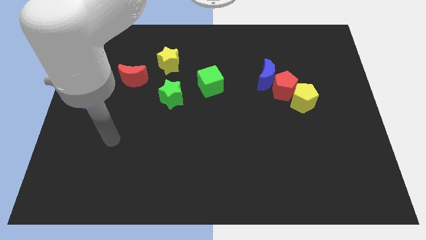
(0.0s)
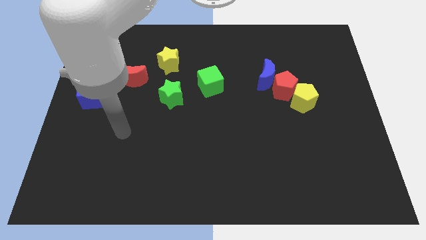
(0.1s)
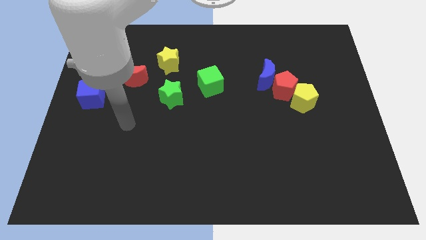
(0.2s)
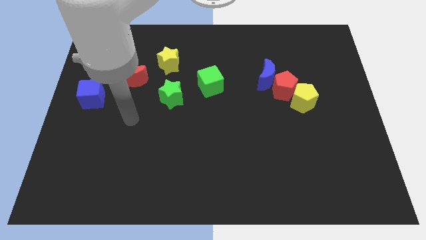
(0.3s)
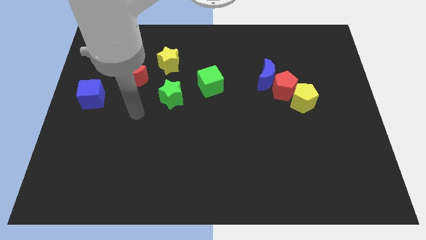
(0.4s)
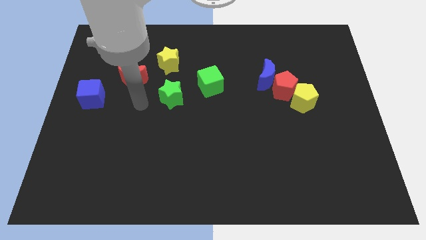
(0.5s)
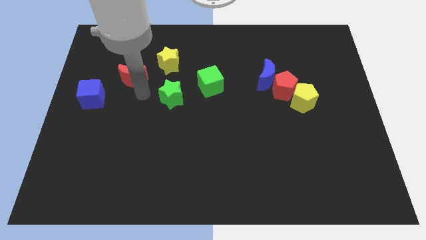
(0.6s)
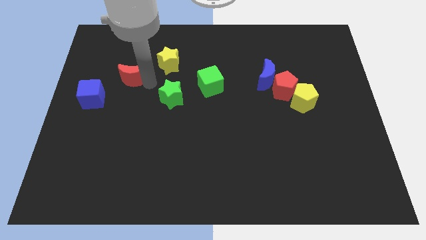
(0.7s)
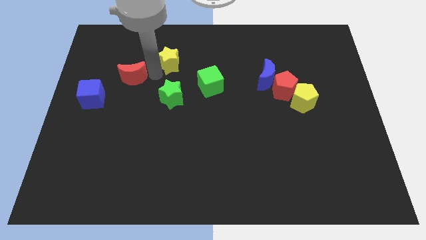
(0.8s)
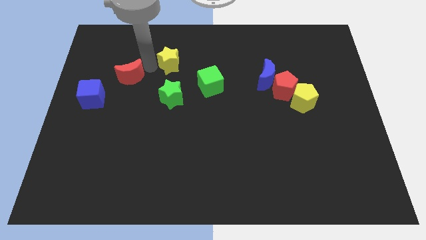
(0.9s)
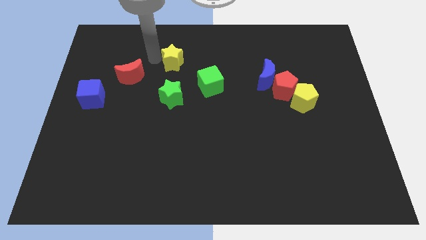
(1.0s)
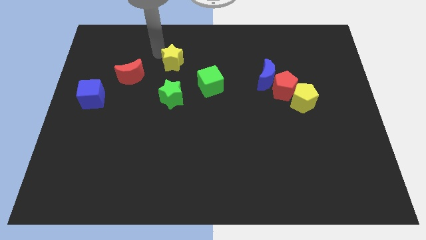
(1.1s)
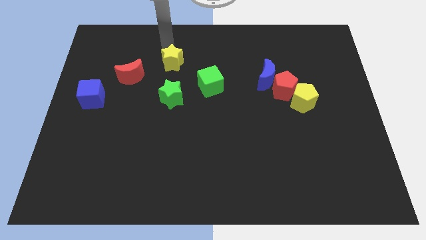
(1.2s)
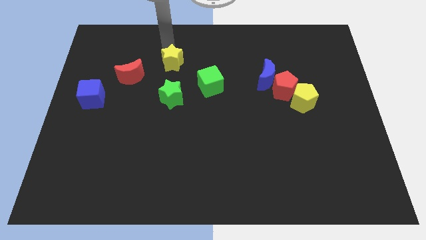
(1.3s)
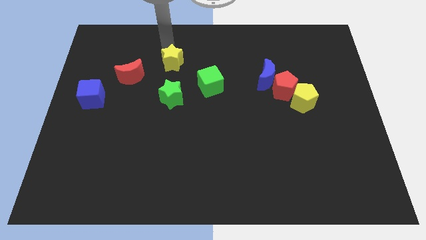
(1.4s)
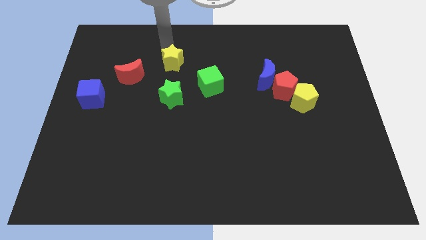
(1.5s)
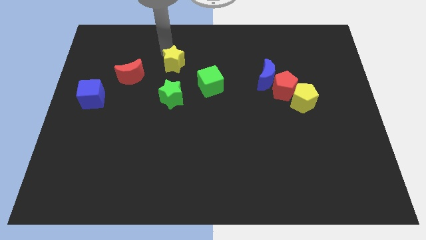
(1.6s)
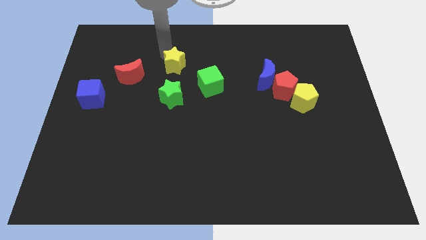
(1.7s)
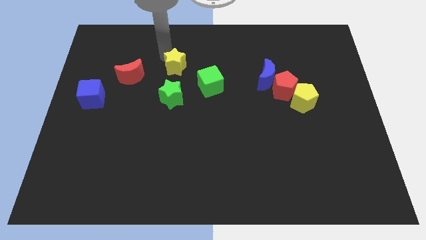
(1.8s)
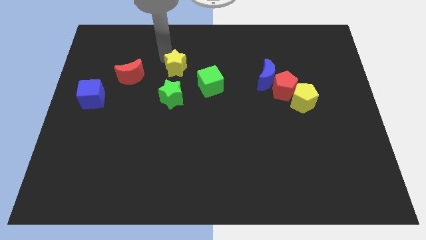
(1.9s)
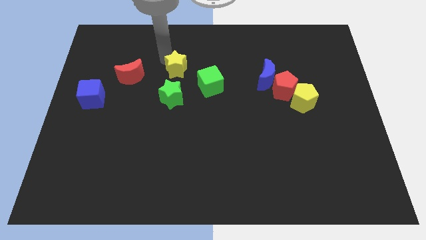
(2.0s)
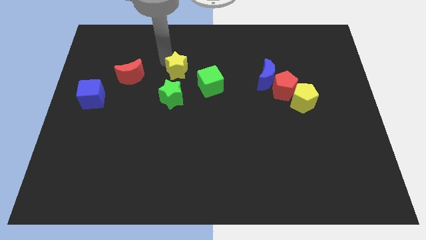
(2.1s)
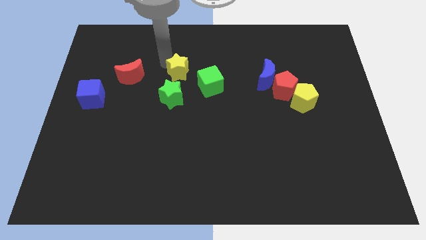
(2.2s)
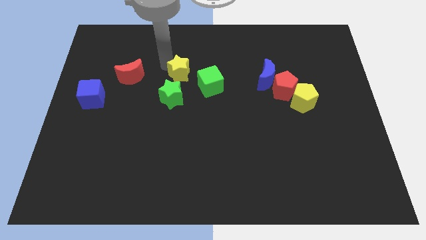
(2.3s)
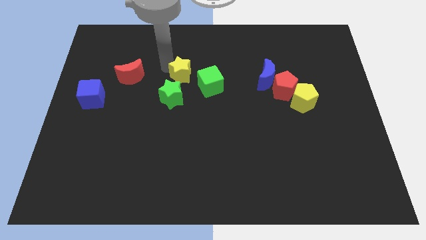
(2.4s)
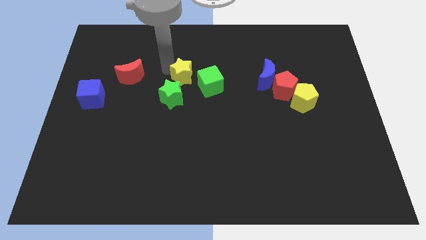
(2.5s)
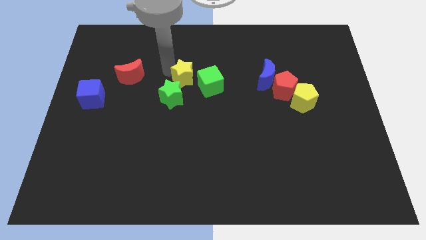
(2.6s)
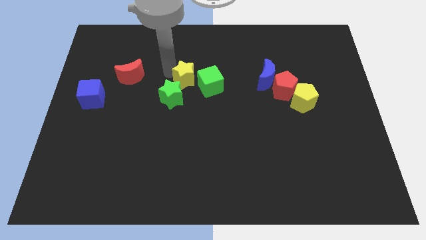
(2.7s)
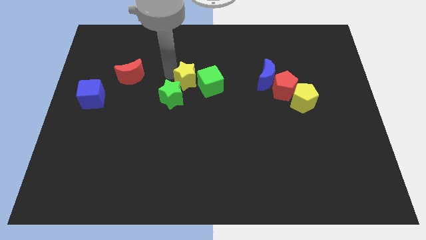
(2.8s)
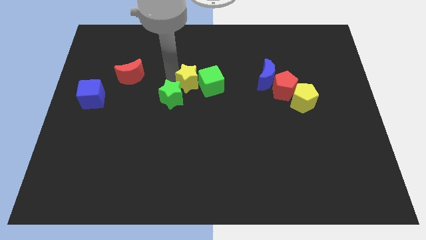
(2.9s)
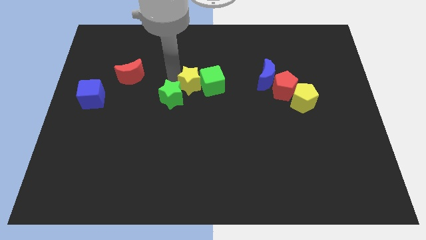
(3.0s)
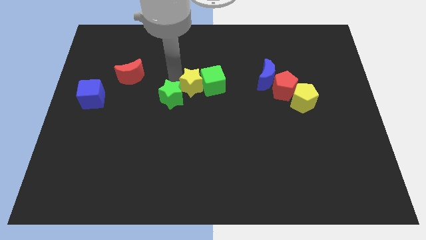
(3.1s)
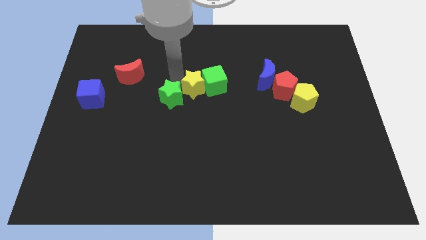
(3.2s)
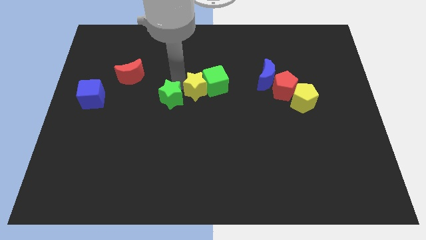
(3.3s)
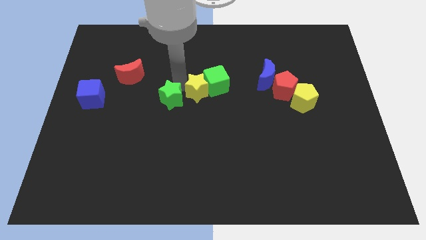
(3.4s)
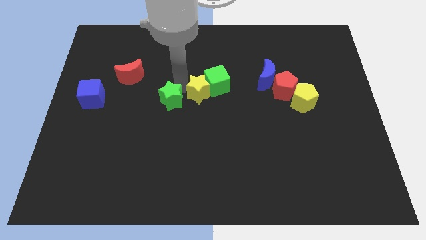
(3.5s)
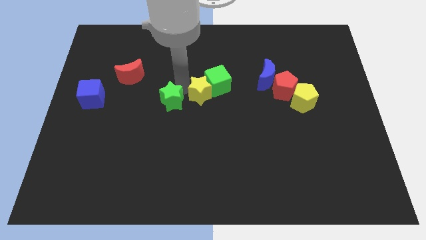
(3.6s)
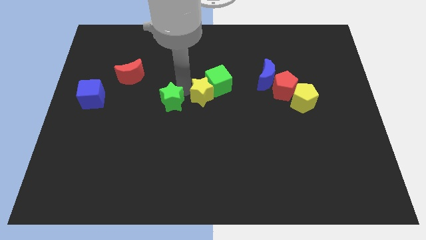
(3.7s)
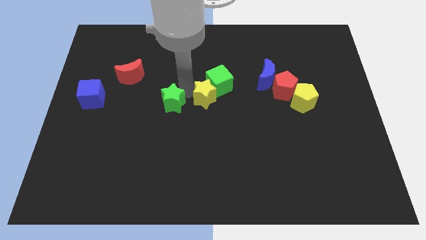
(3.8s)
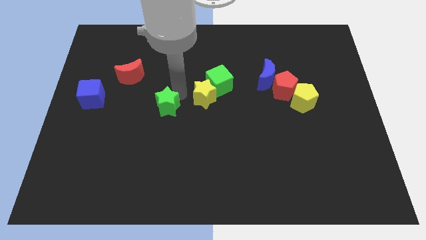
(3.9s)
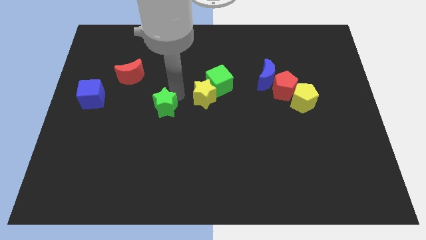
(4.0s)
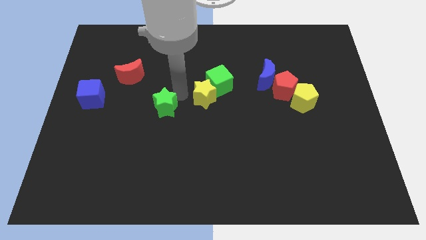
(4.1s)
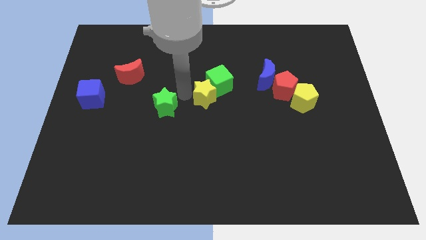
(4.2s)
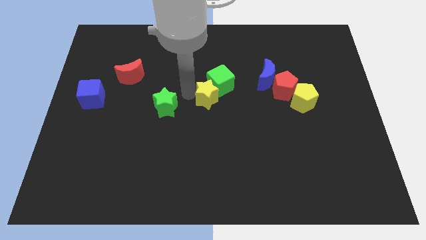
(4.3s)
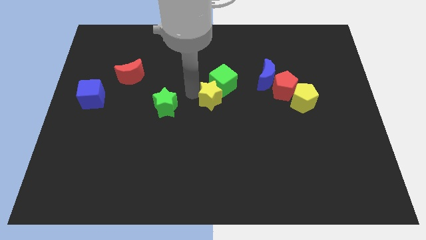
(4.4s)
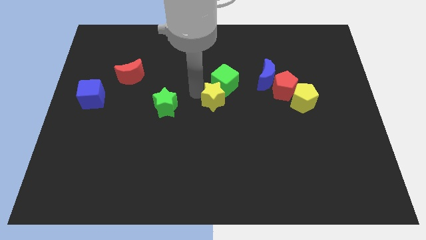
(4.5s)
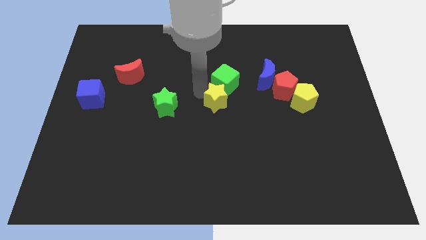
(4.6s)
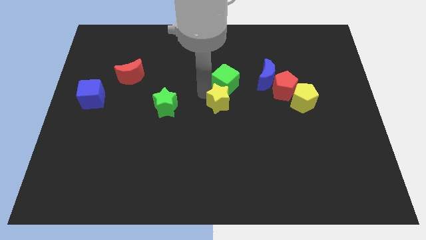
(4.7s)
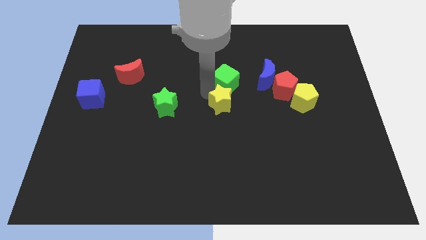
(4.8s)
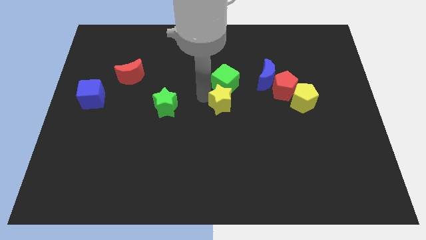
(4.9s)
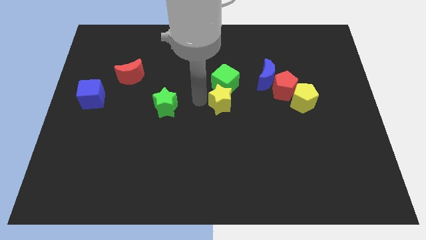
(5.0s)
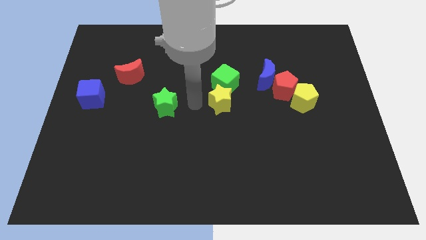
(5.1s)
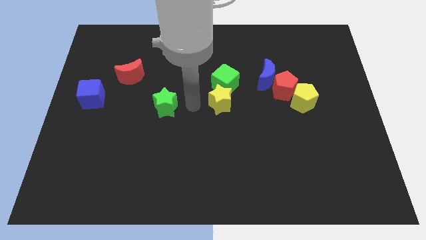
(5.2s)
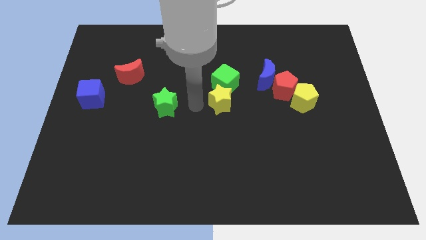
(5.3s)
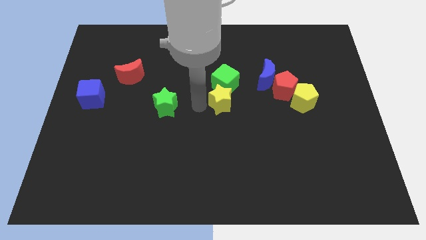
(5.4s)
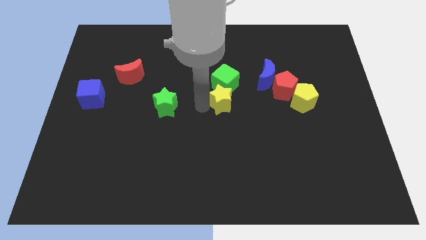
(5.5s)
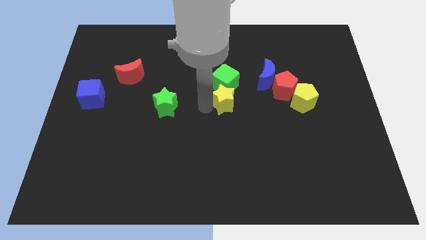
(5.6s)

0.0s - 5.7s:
push the yellow star diagonally down and to the right of the green cube

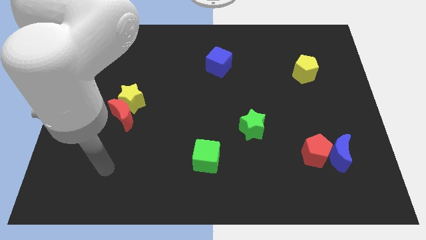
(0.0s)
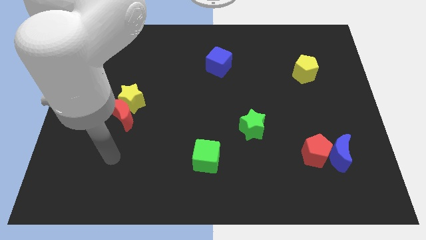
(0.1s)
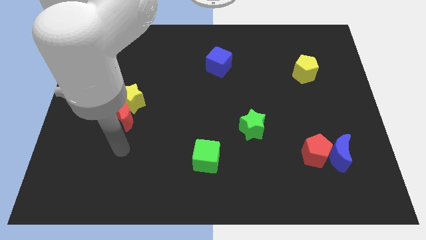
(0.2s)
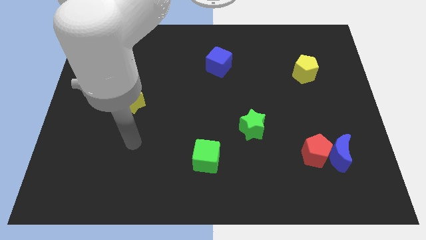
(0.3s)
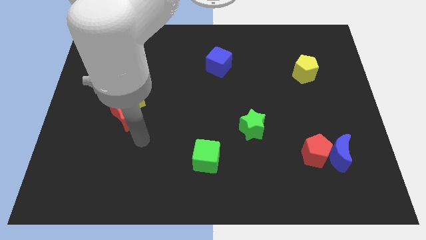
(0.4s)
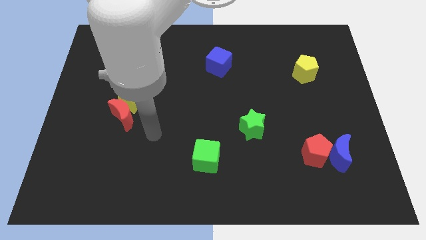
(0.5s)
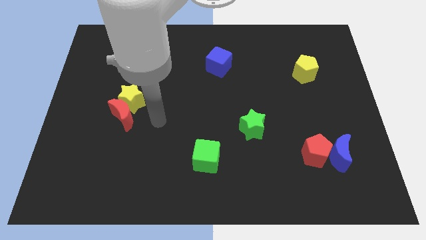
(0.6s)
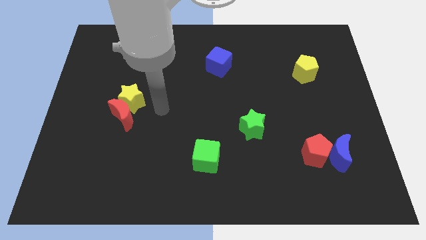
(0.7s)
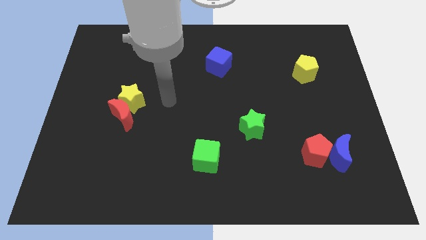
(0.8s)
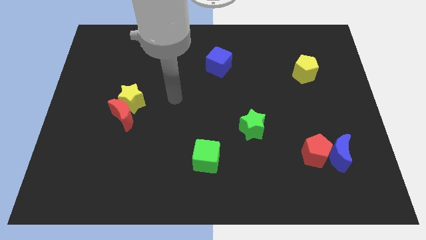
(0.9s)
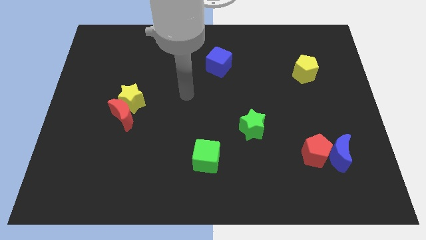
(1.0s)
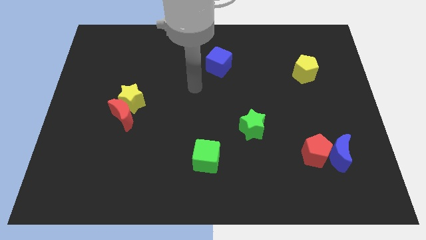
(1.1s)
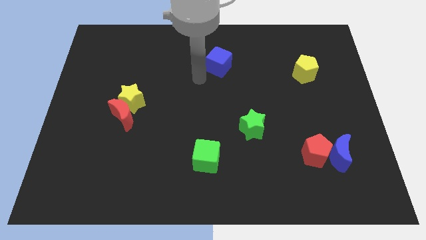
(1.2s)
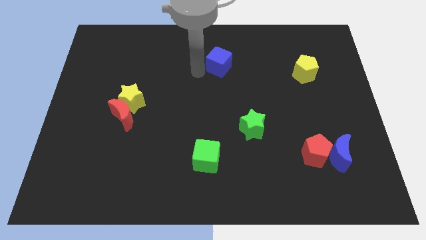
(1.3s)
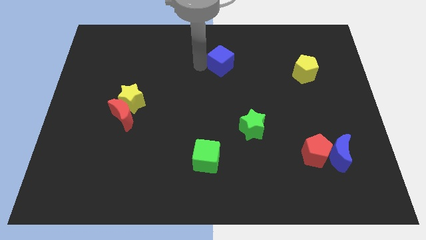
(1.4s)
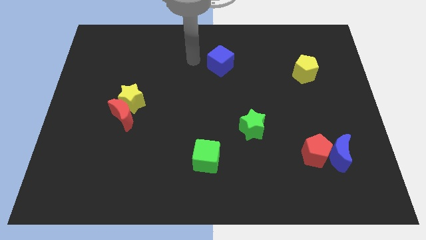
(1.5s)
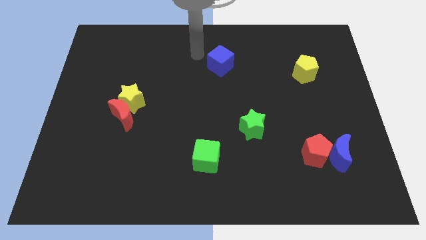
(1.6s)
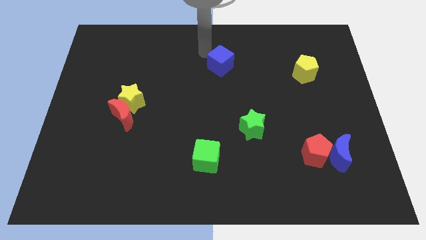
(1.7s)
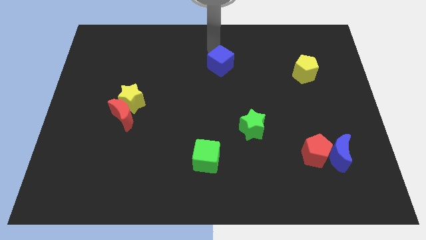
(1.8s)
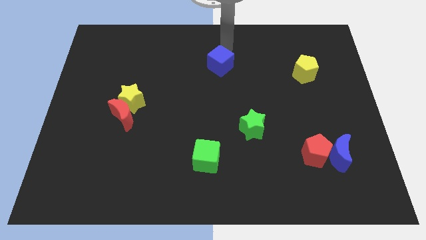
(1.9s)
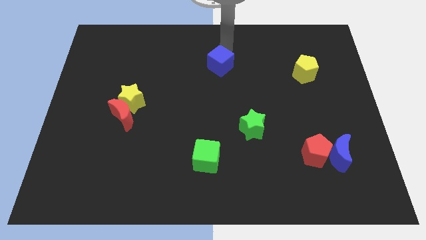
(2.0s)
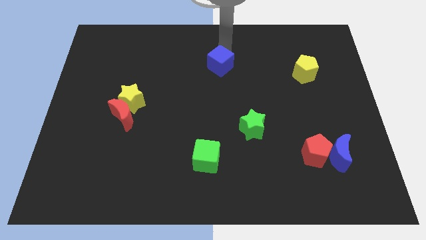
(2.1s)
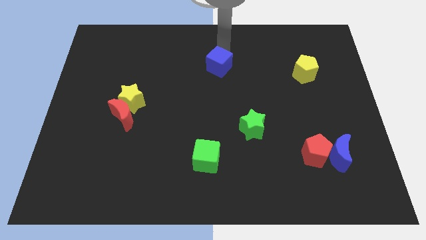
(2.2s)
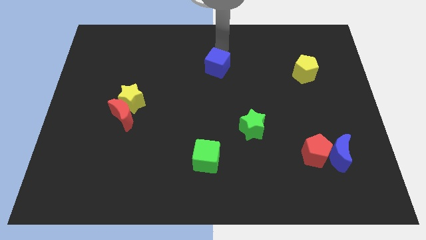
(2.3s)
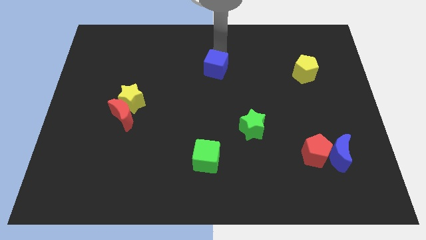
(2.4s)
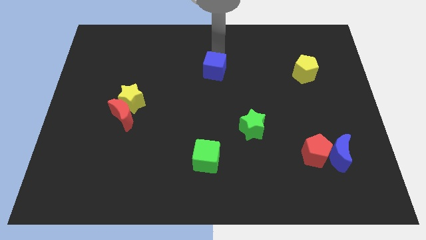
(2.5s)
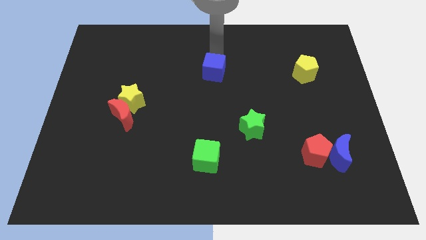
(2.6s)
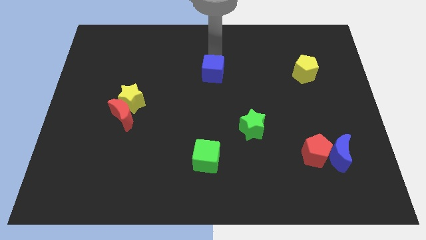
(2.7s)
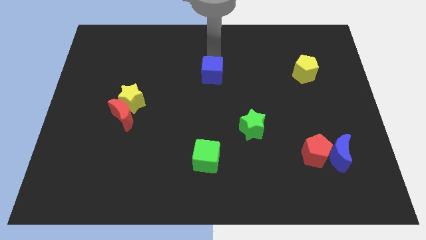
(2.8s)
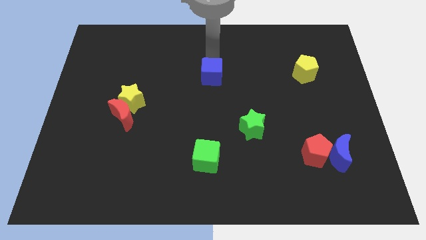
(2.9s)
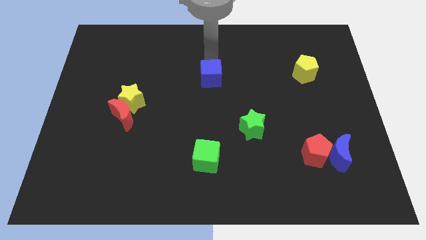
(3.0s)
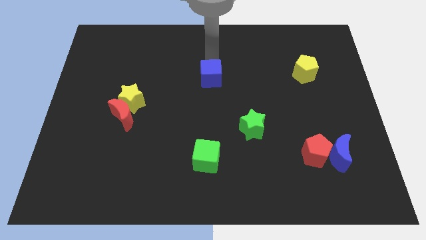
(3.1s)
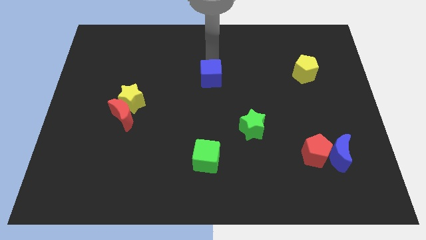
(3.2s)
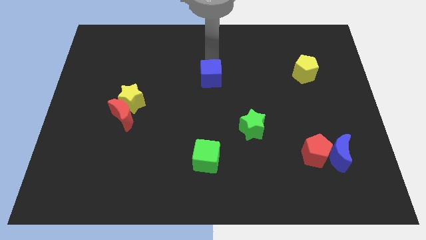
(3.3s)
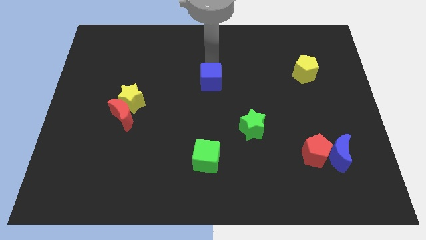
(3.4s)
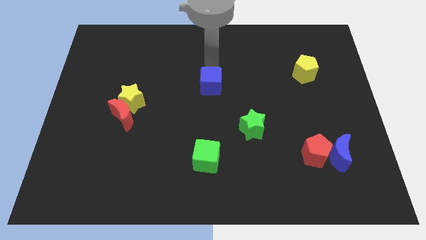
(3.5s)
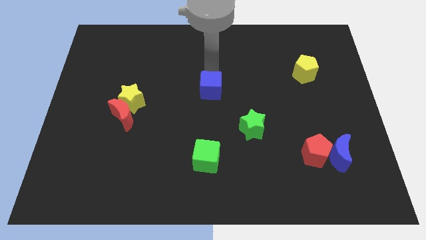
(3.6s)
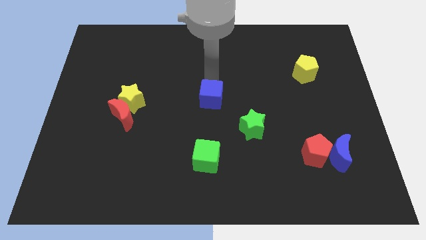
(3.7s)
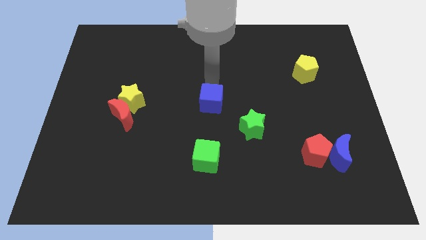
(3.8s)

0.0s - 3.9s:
slide the blue cube above the green cube
